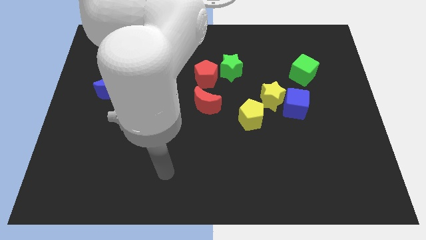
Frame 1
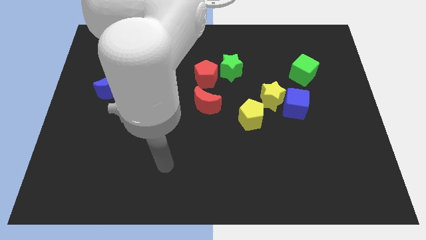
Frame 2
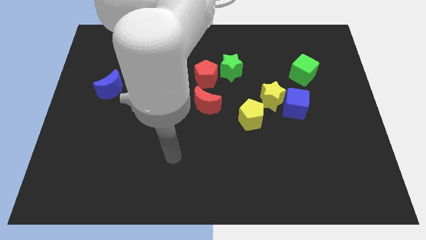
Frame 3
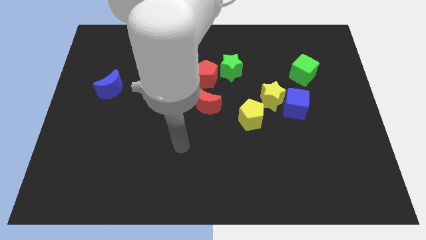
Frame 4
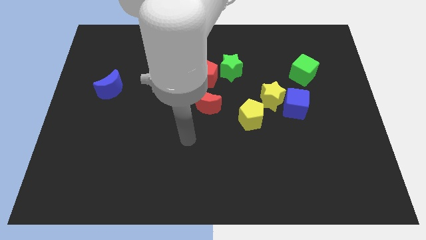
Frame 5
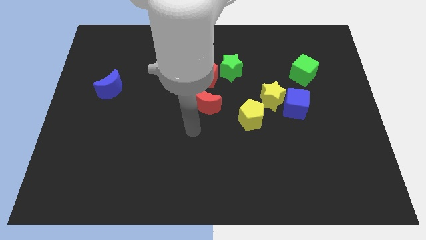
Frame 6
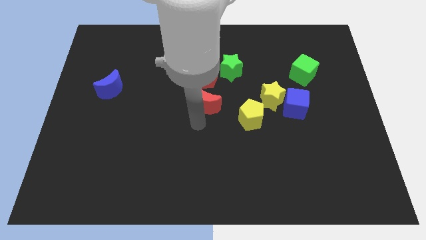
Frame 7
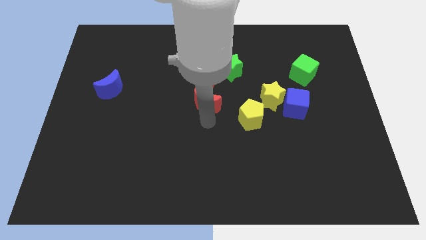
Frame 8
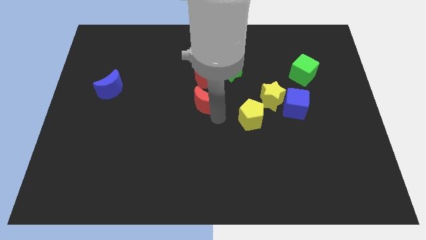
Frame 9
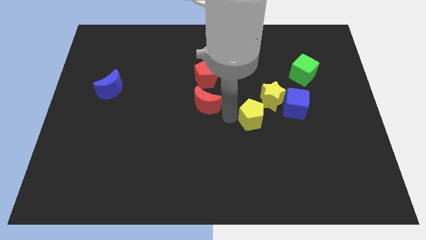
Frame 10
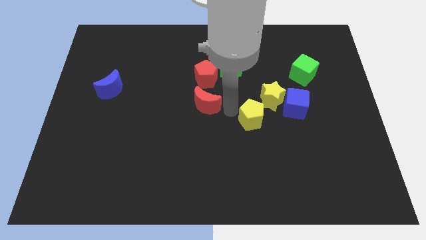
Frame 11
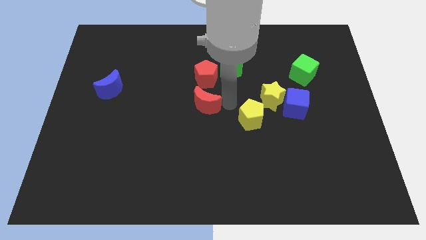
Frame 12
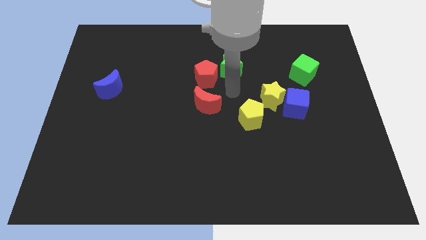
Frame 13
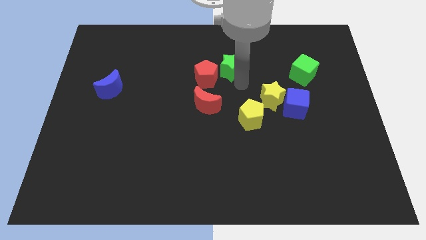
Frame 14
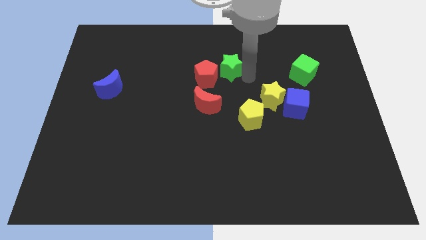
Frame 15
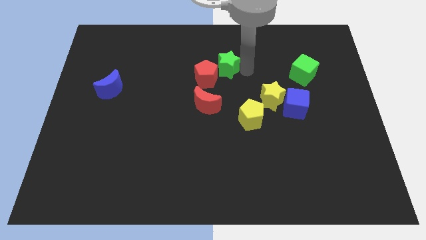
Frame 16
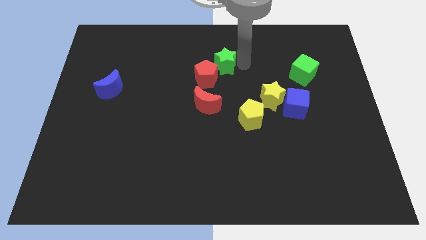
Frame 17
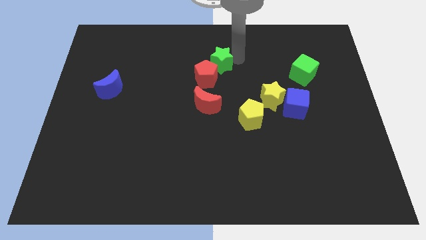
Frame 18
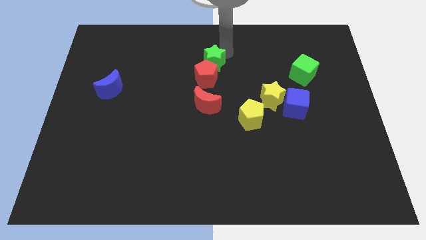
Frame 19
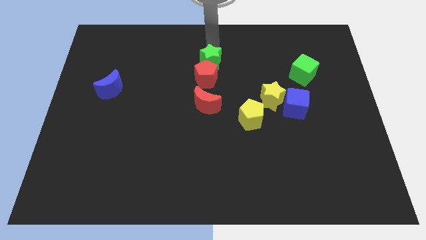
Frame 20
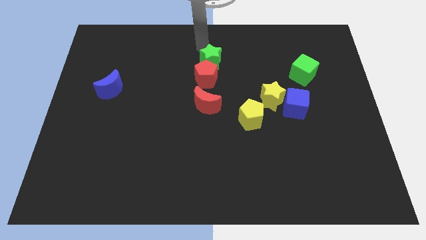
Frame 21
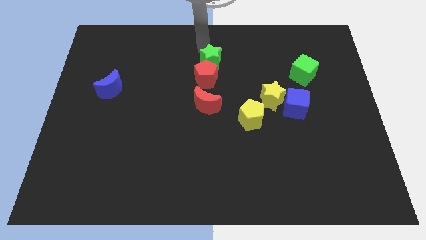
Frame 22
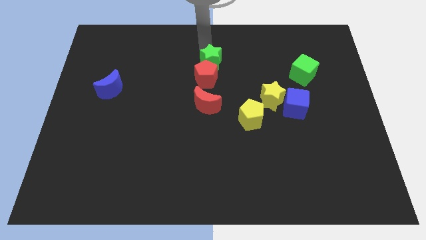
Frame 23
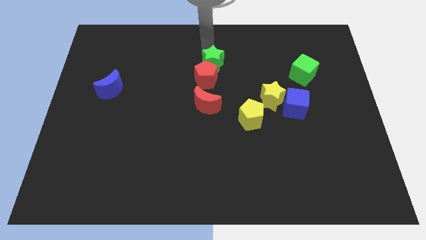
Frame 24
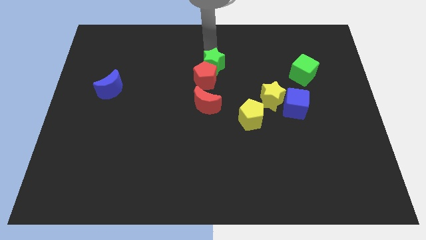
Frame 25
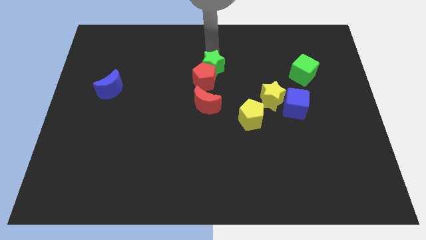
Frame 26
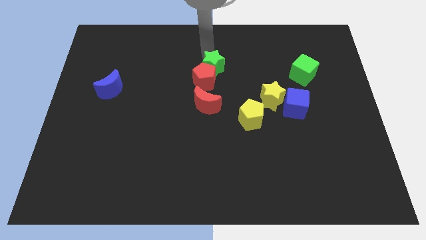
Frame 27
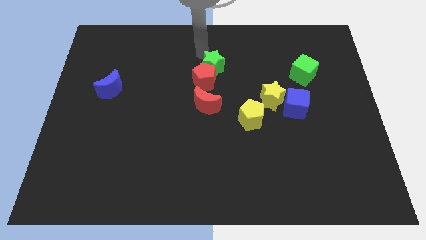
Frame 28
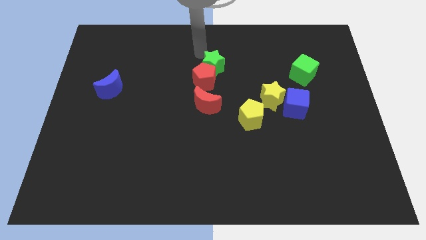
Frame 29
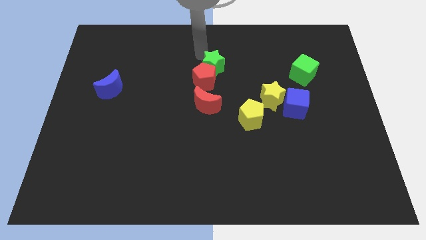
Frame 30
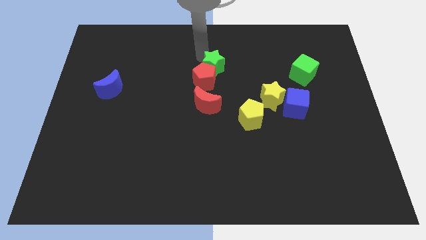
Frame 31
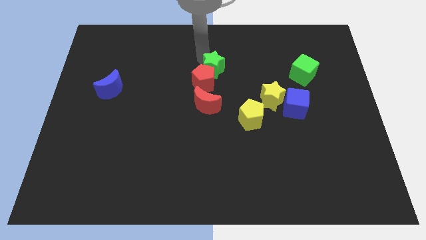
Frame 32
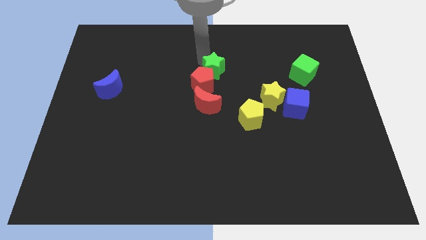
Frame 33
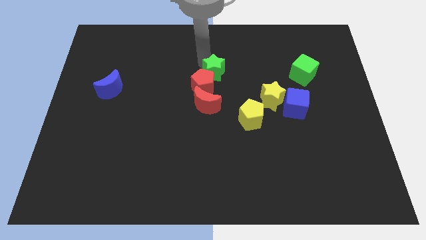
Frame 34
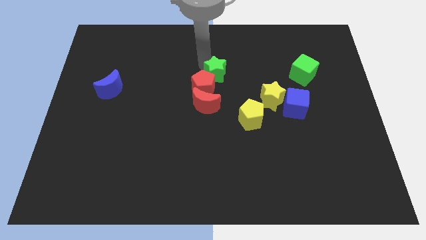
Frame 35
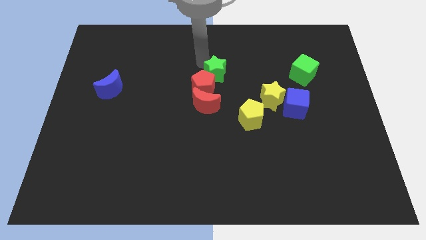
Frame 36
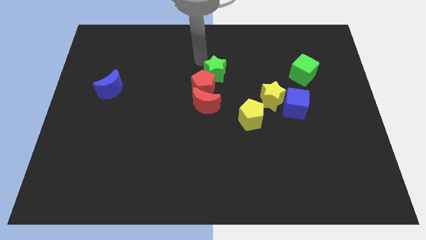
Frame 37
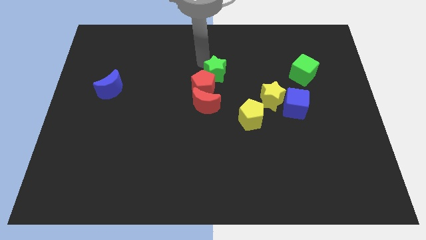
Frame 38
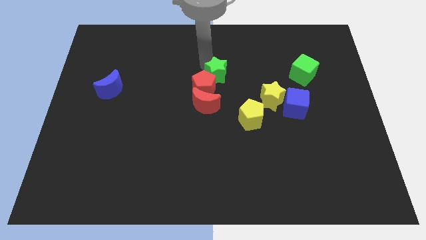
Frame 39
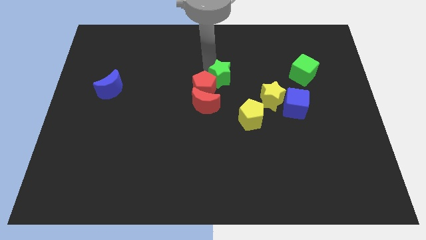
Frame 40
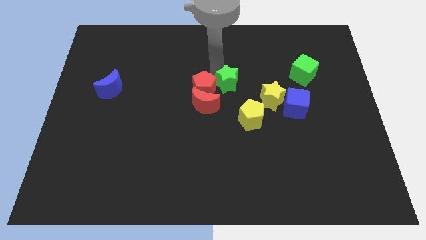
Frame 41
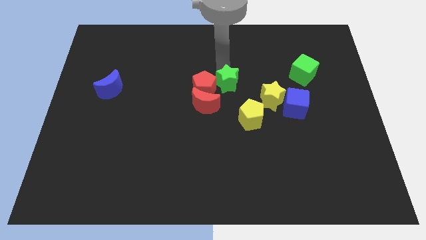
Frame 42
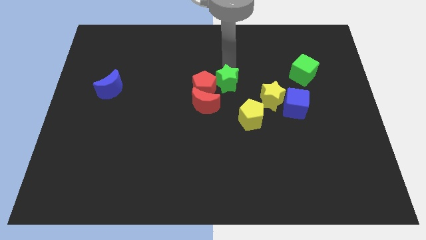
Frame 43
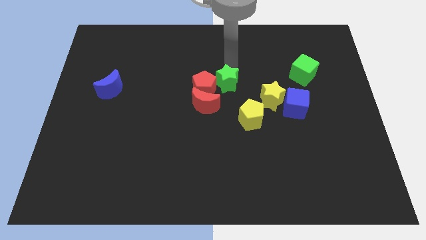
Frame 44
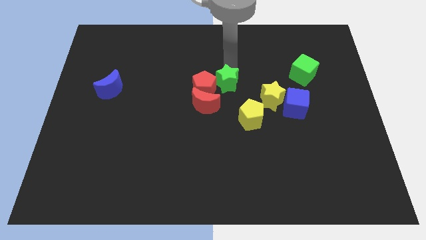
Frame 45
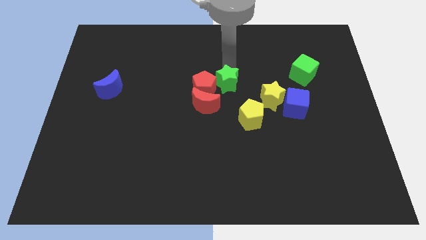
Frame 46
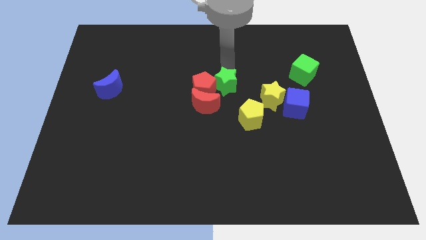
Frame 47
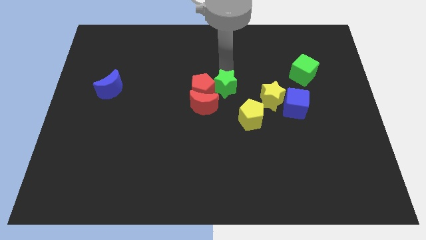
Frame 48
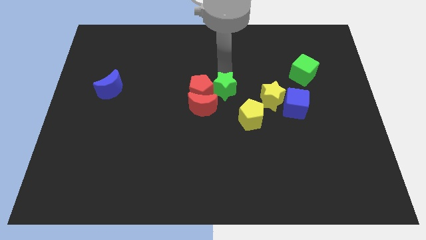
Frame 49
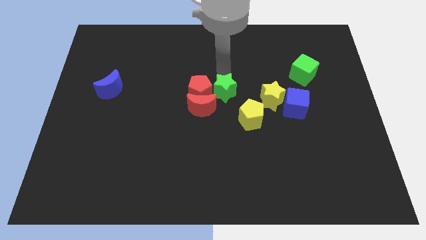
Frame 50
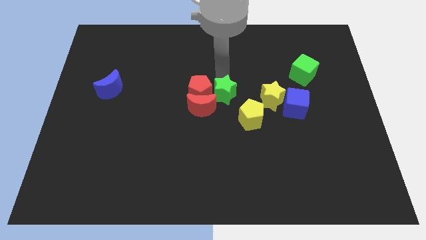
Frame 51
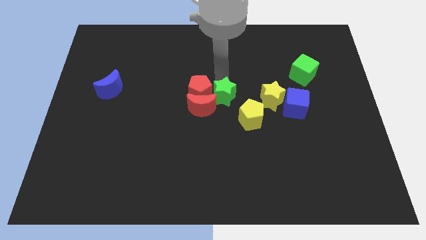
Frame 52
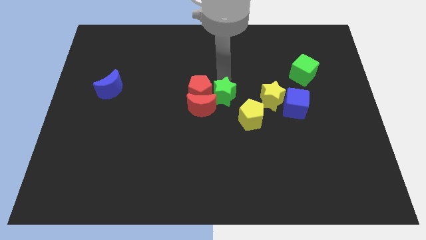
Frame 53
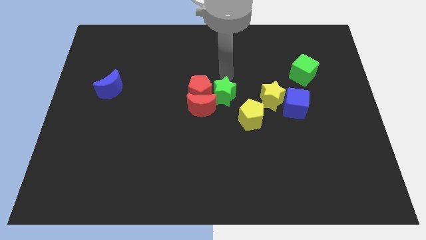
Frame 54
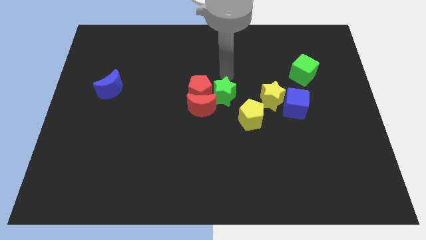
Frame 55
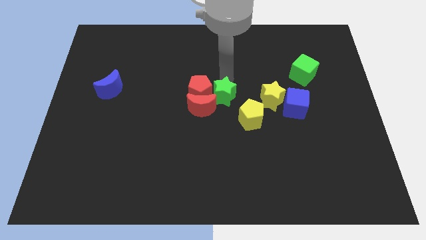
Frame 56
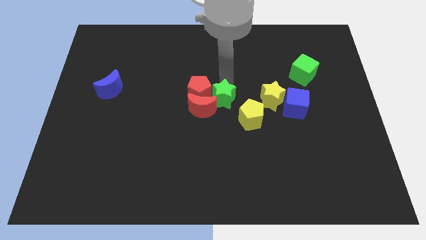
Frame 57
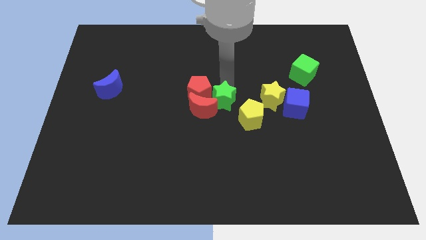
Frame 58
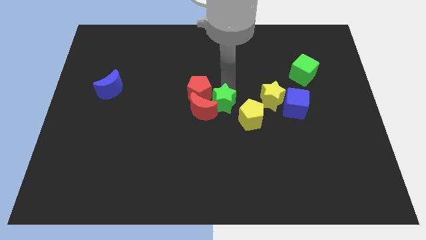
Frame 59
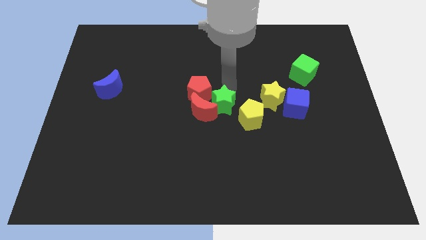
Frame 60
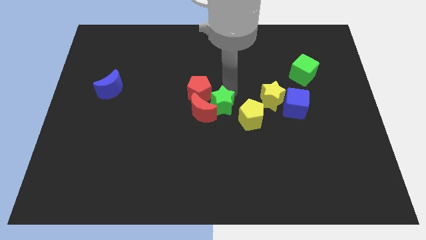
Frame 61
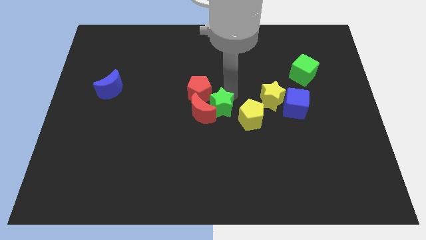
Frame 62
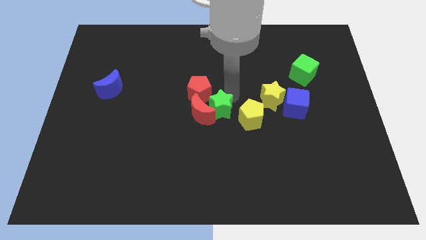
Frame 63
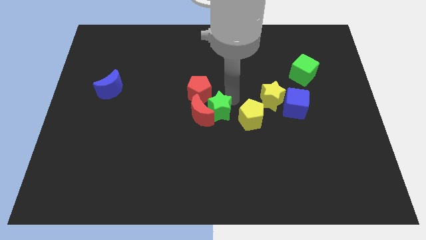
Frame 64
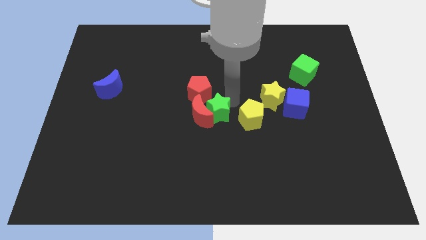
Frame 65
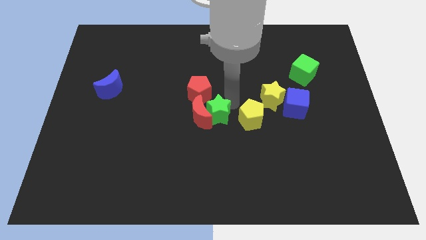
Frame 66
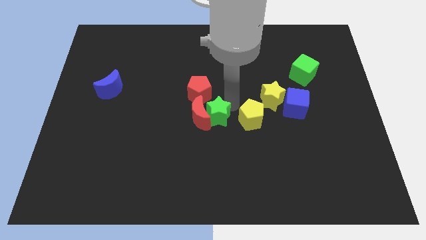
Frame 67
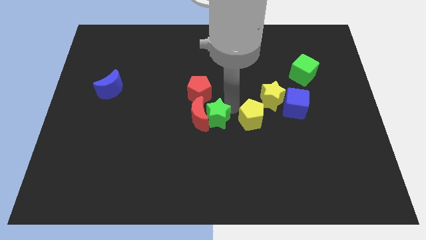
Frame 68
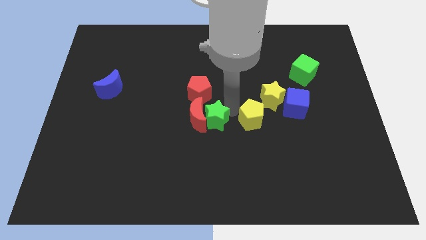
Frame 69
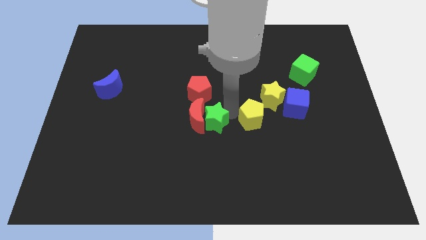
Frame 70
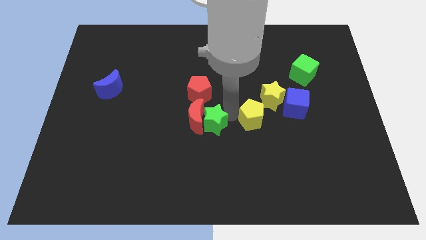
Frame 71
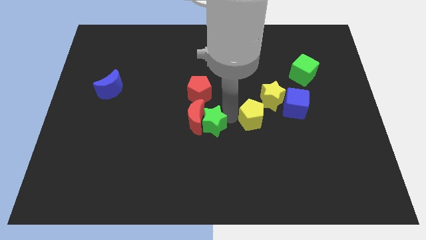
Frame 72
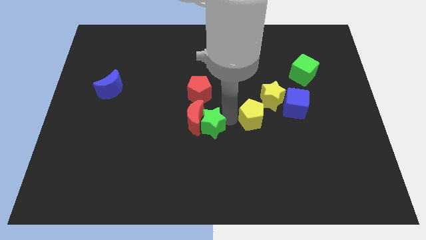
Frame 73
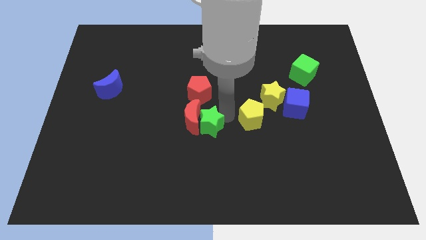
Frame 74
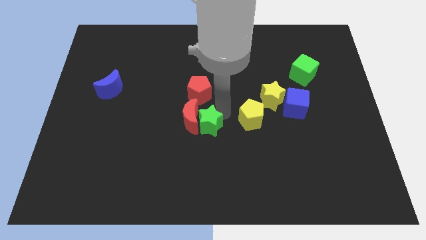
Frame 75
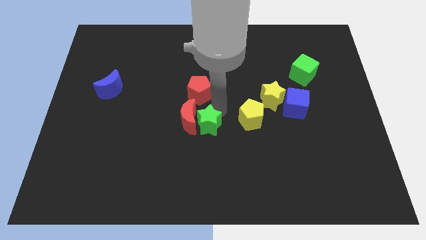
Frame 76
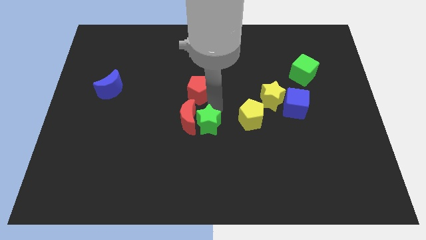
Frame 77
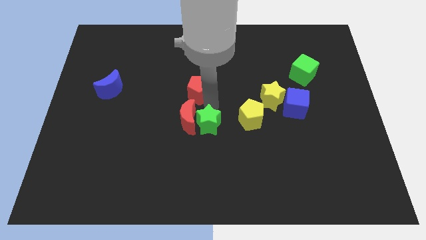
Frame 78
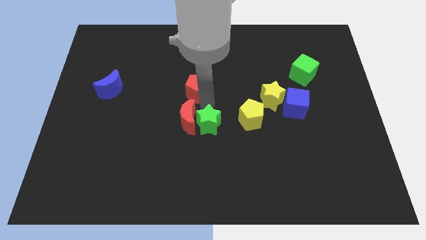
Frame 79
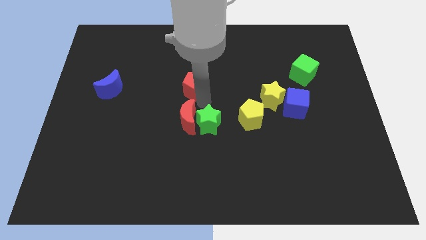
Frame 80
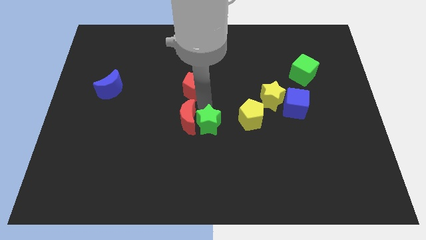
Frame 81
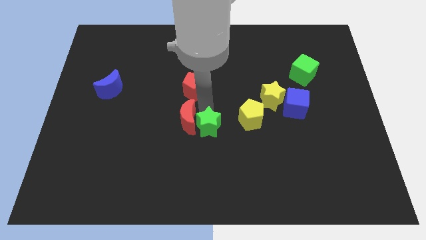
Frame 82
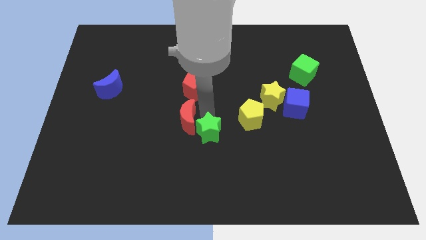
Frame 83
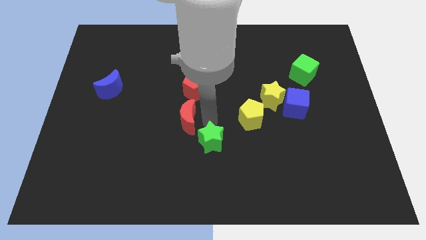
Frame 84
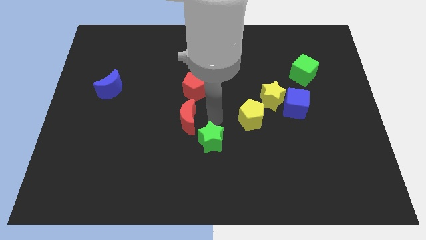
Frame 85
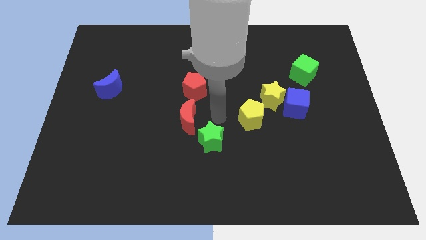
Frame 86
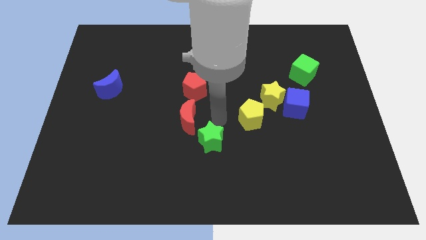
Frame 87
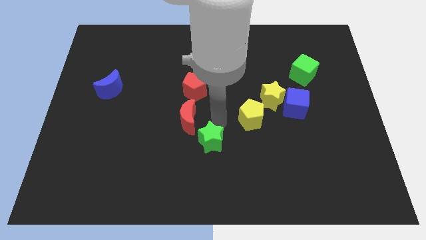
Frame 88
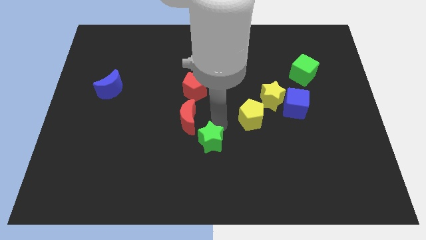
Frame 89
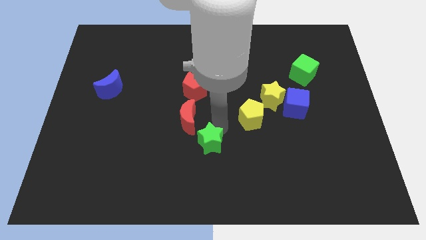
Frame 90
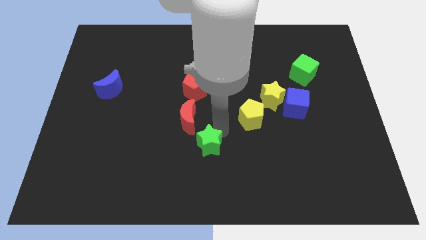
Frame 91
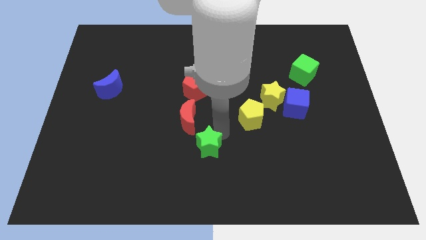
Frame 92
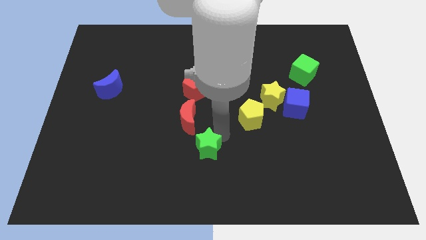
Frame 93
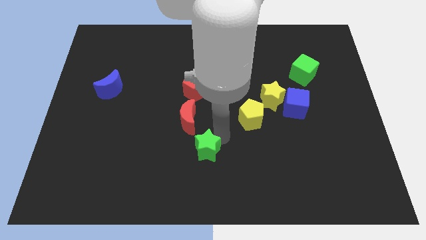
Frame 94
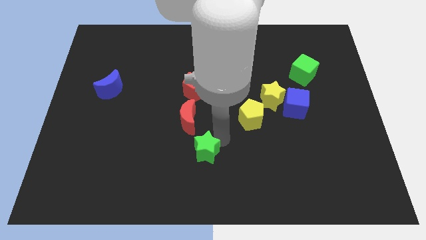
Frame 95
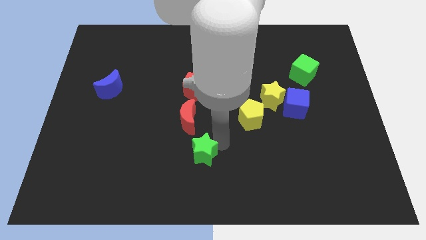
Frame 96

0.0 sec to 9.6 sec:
put the green star to the bottom
